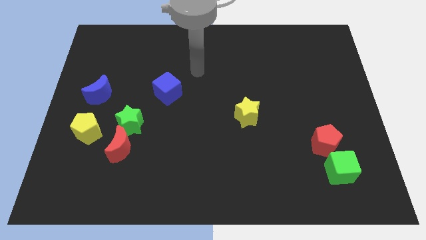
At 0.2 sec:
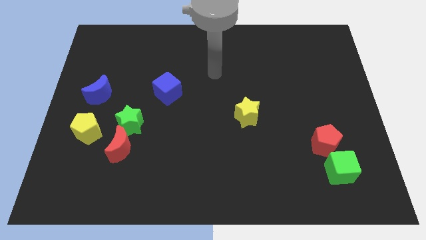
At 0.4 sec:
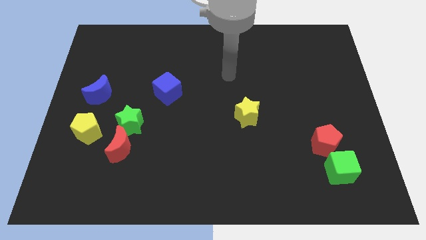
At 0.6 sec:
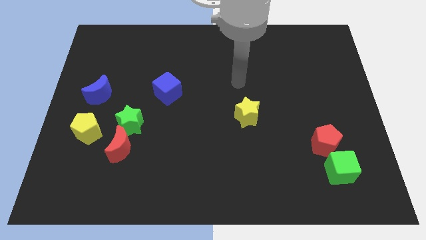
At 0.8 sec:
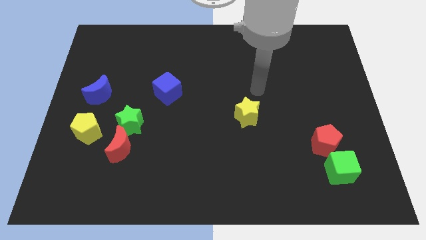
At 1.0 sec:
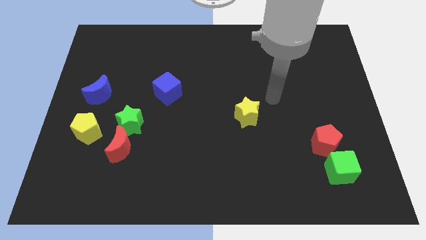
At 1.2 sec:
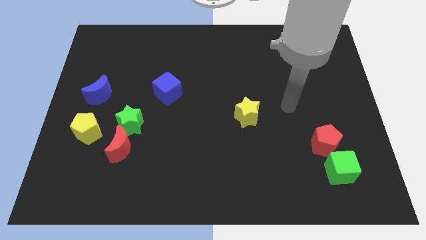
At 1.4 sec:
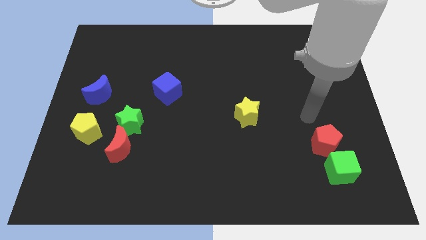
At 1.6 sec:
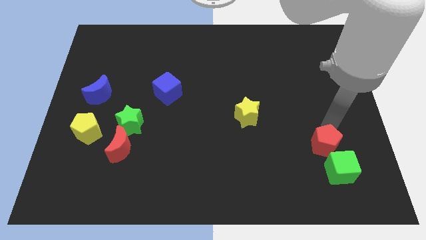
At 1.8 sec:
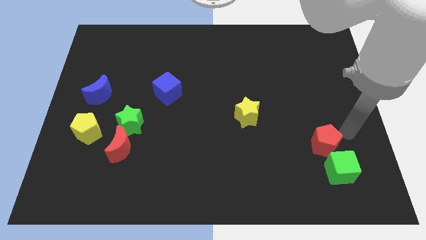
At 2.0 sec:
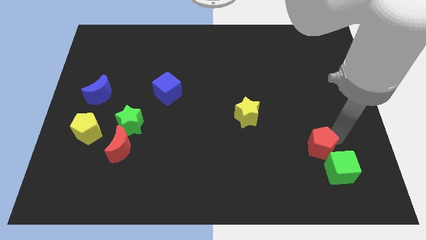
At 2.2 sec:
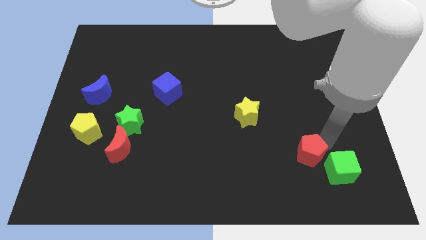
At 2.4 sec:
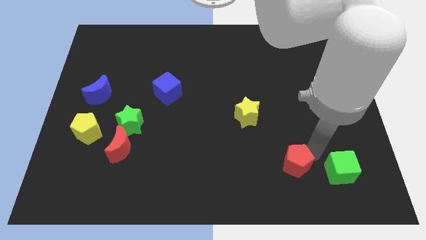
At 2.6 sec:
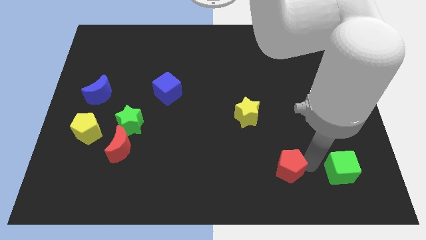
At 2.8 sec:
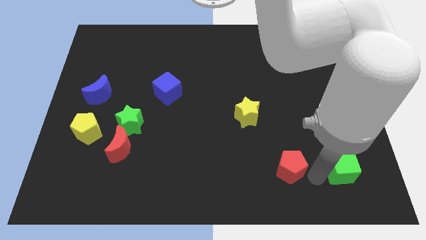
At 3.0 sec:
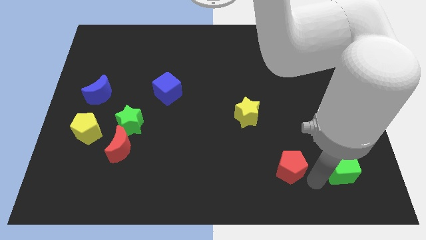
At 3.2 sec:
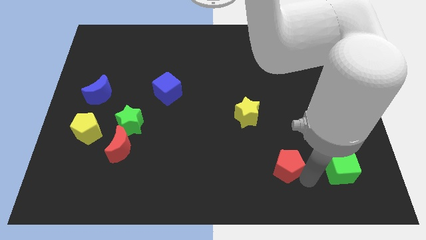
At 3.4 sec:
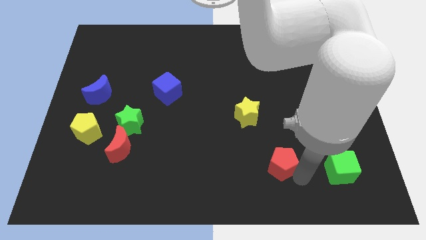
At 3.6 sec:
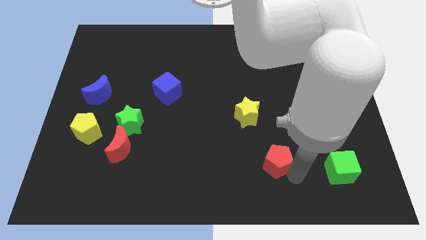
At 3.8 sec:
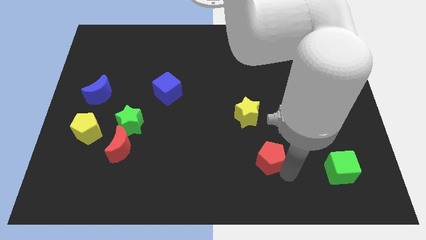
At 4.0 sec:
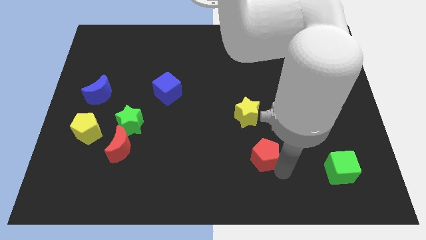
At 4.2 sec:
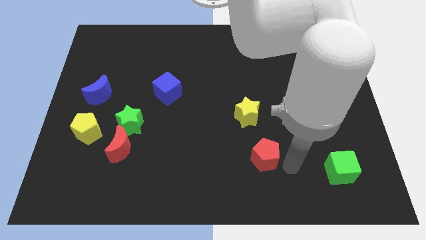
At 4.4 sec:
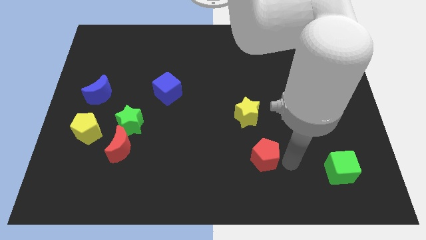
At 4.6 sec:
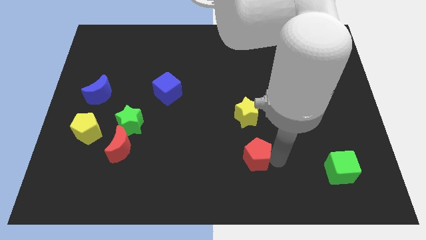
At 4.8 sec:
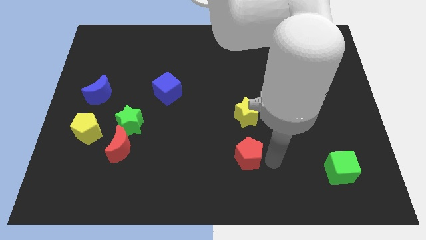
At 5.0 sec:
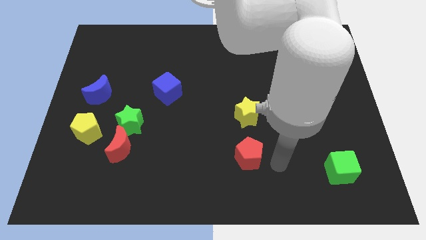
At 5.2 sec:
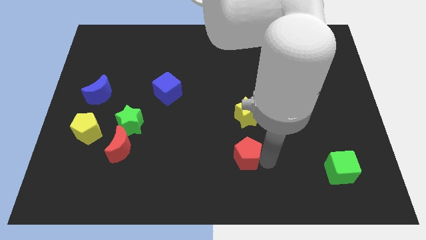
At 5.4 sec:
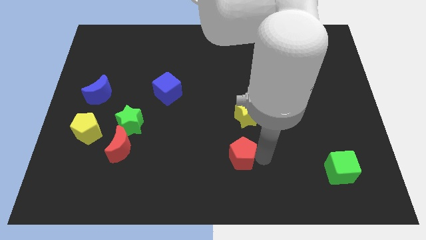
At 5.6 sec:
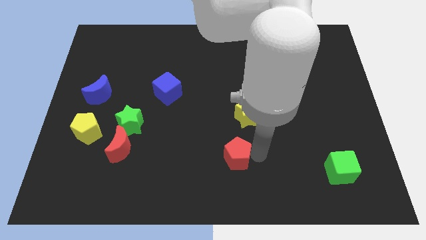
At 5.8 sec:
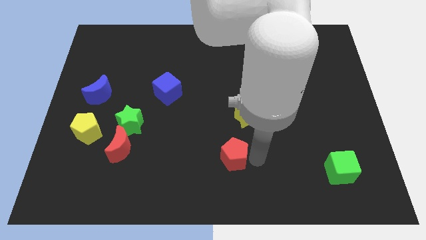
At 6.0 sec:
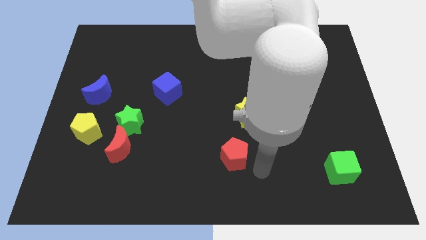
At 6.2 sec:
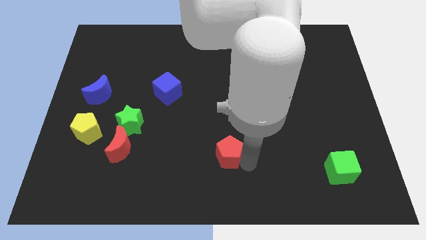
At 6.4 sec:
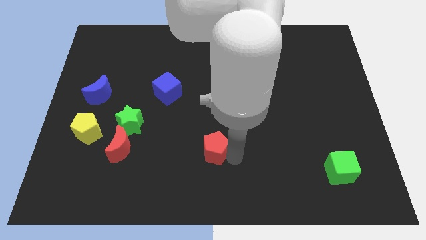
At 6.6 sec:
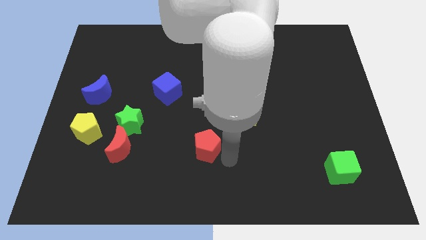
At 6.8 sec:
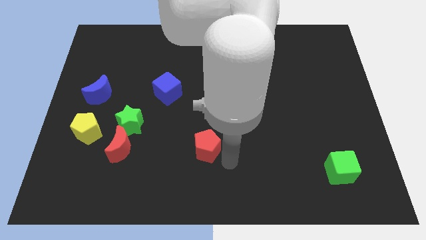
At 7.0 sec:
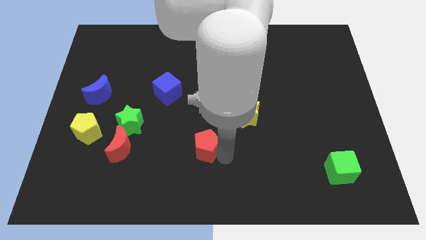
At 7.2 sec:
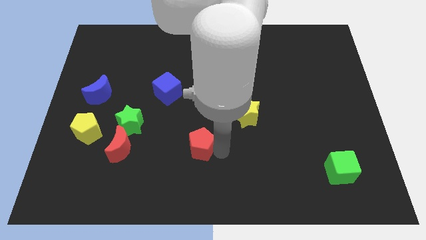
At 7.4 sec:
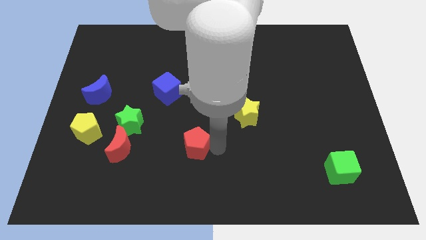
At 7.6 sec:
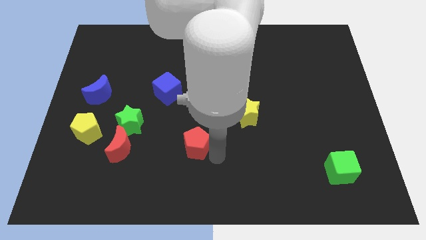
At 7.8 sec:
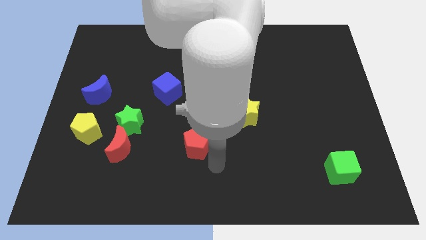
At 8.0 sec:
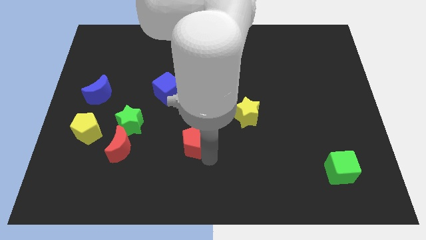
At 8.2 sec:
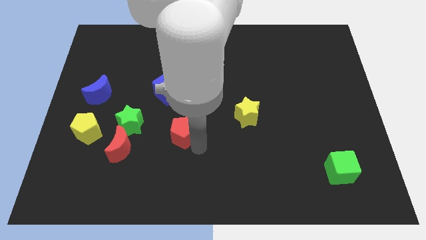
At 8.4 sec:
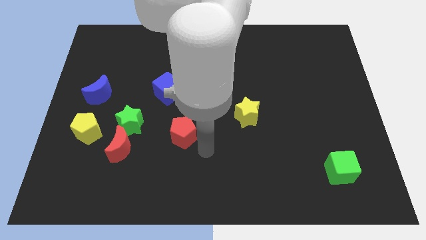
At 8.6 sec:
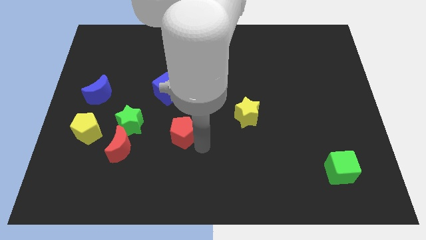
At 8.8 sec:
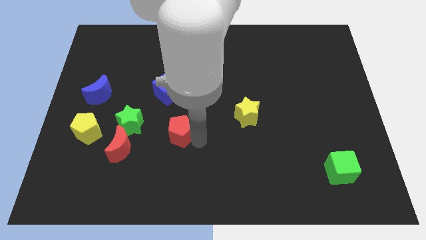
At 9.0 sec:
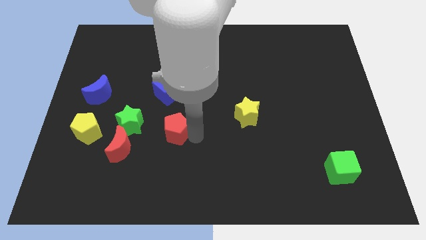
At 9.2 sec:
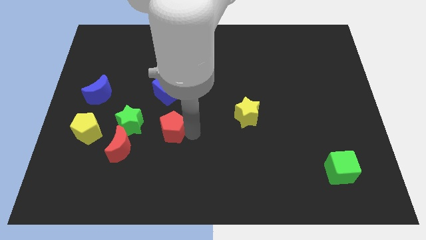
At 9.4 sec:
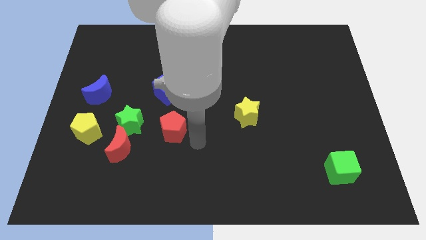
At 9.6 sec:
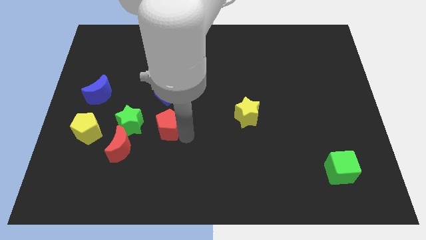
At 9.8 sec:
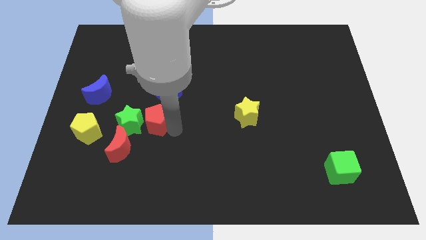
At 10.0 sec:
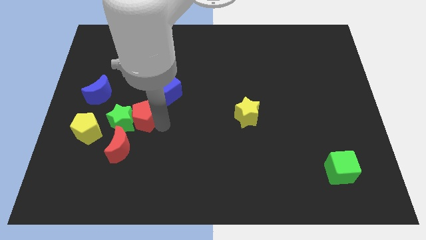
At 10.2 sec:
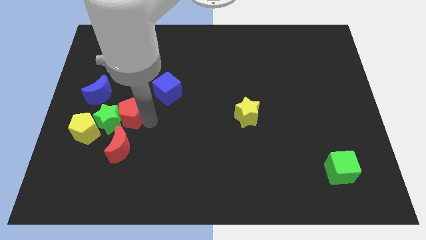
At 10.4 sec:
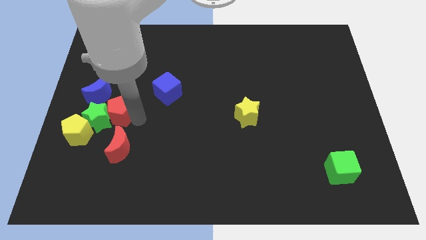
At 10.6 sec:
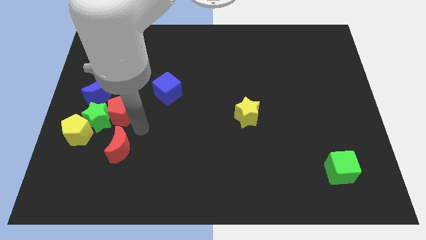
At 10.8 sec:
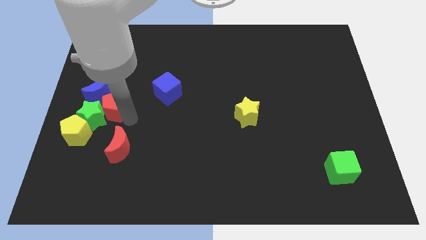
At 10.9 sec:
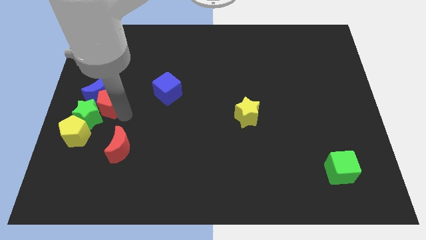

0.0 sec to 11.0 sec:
move the red pentagon to the blue moon
